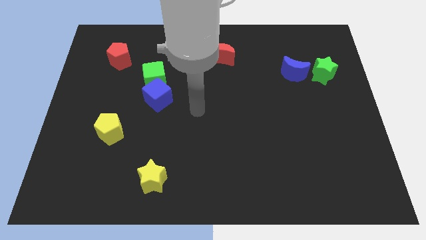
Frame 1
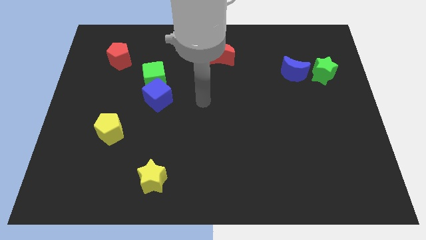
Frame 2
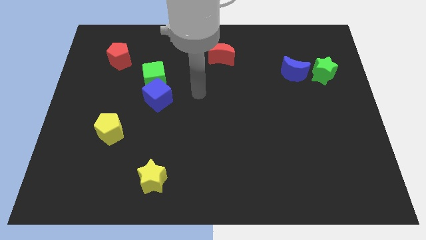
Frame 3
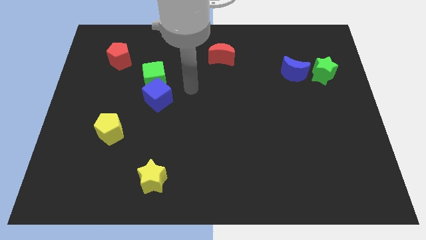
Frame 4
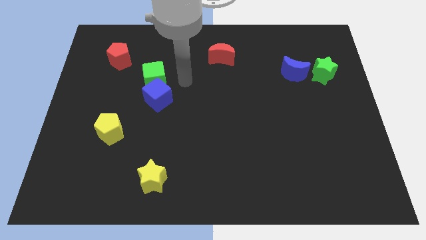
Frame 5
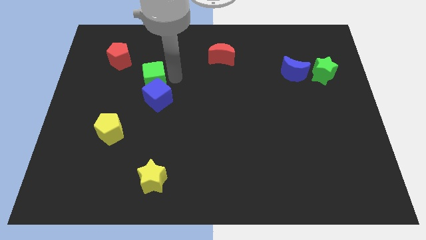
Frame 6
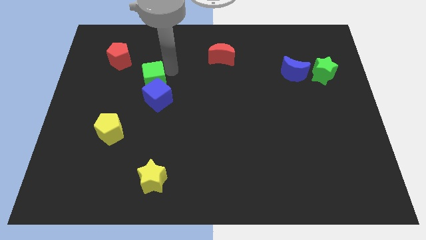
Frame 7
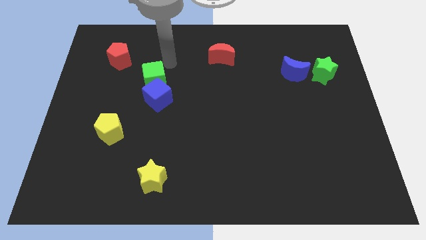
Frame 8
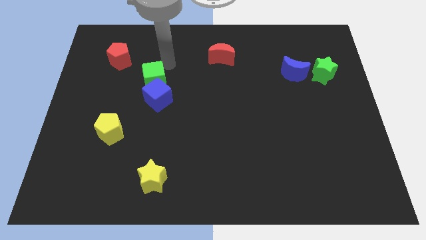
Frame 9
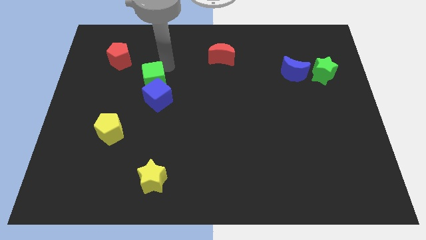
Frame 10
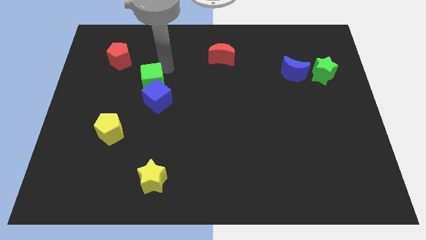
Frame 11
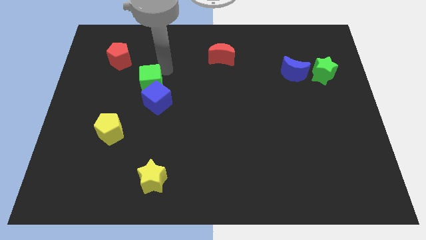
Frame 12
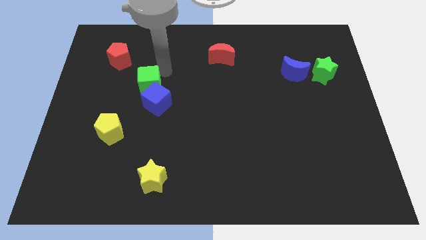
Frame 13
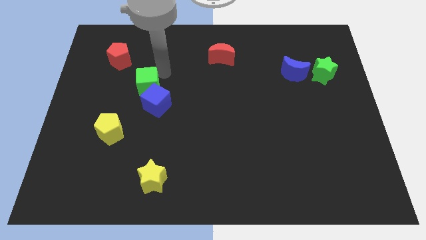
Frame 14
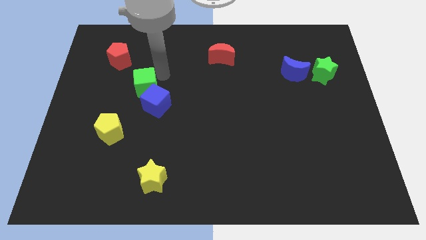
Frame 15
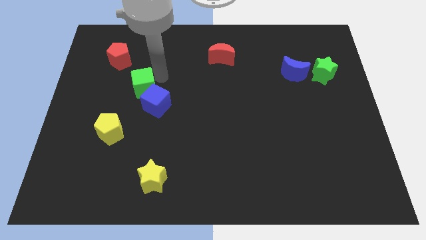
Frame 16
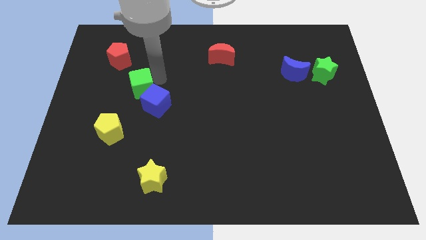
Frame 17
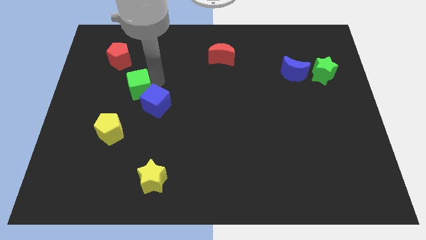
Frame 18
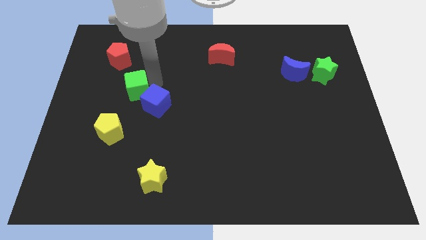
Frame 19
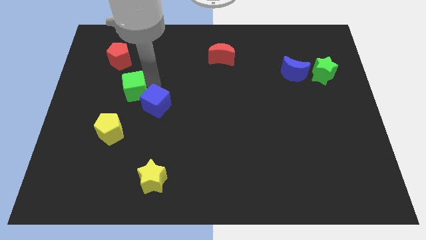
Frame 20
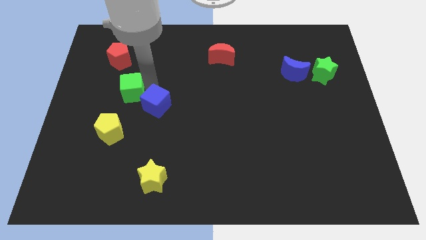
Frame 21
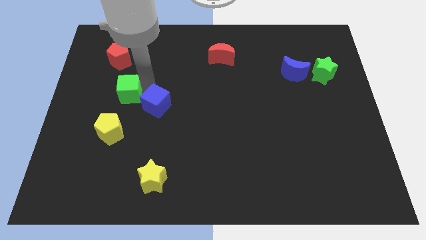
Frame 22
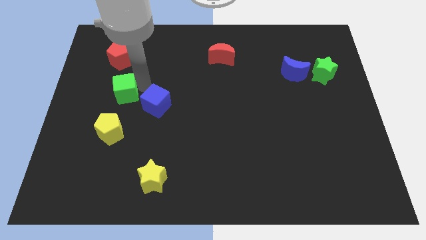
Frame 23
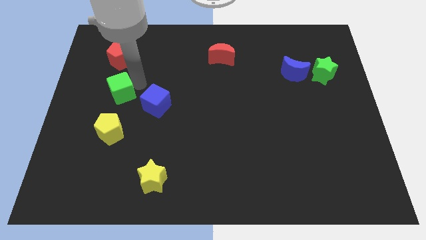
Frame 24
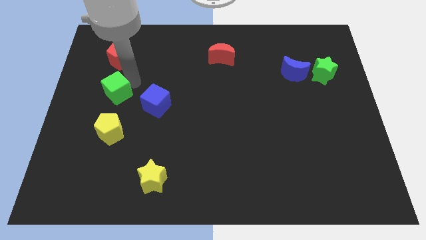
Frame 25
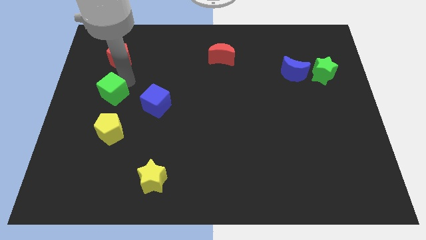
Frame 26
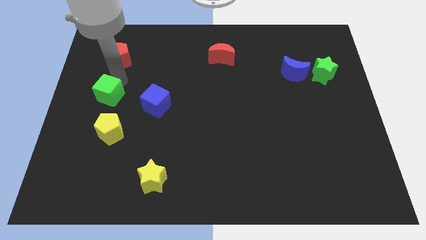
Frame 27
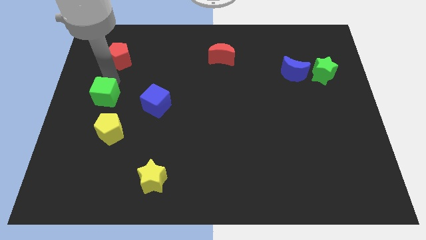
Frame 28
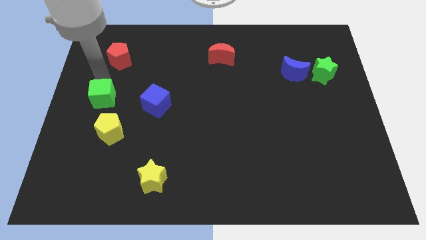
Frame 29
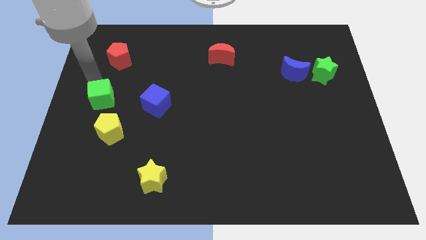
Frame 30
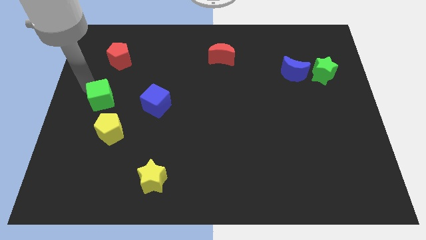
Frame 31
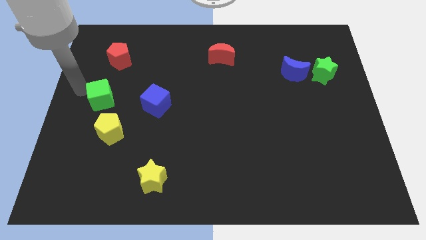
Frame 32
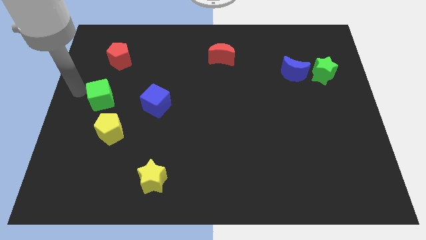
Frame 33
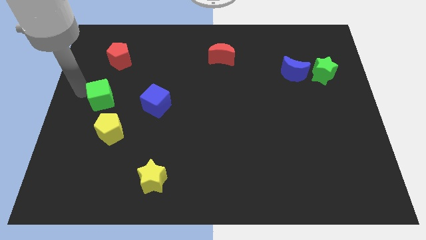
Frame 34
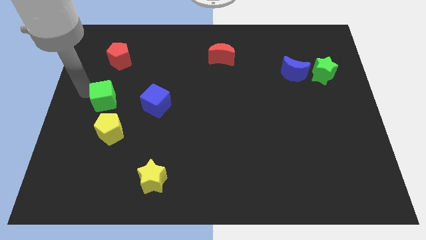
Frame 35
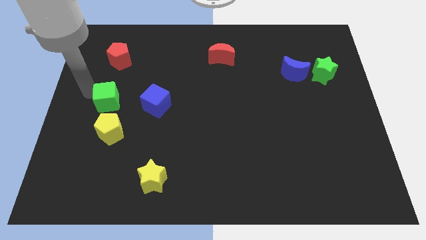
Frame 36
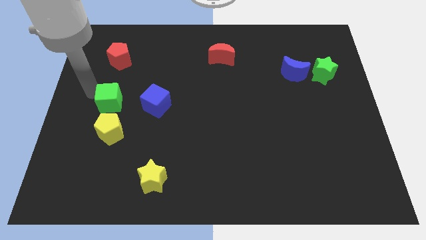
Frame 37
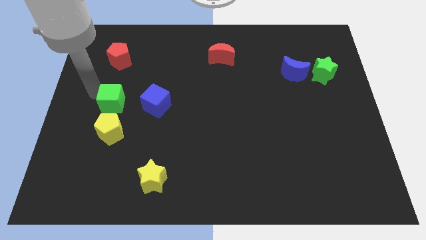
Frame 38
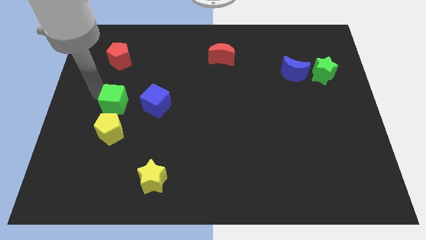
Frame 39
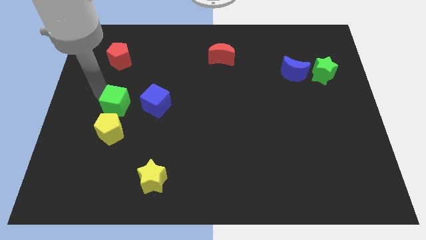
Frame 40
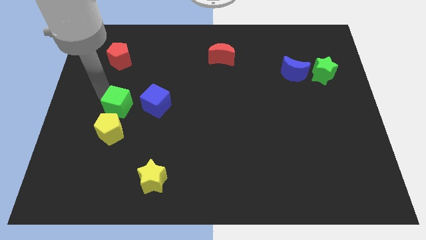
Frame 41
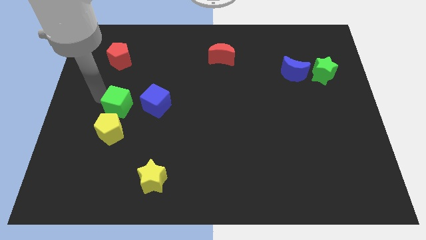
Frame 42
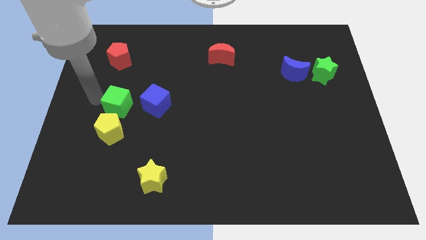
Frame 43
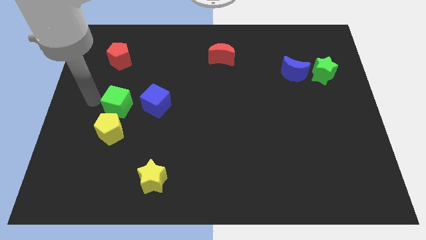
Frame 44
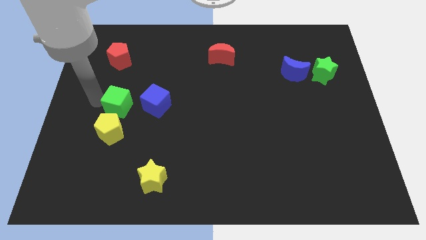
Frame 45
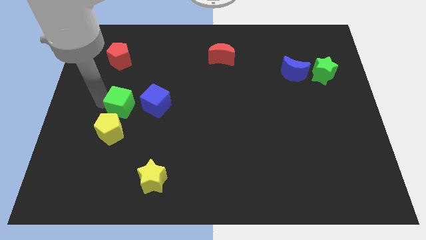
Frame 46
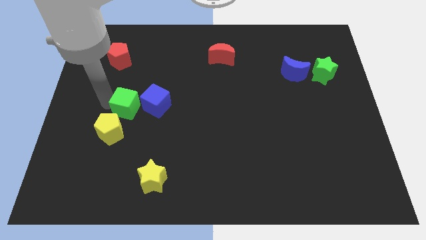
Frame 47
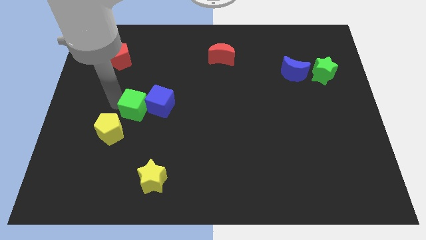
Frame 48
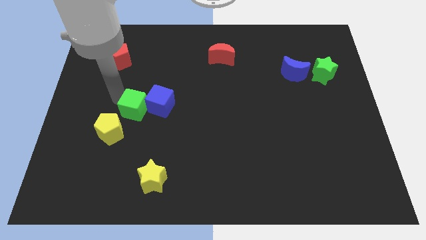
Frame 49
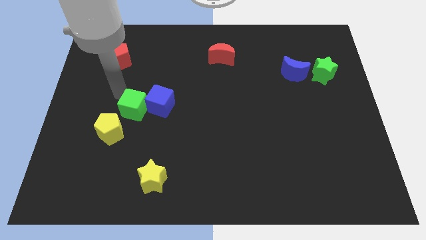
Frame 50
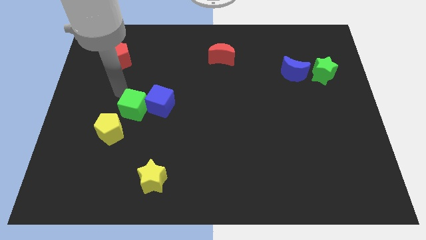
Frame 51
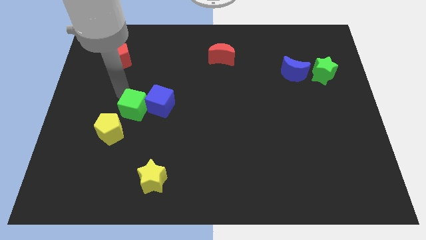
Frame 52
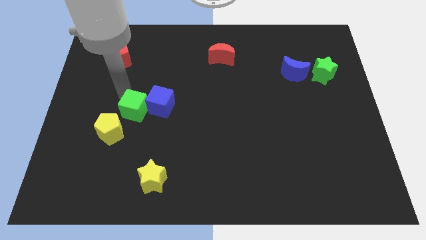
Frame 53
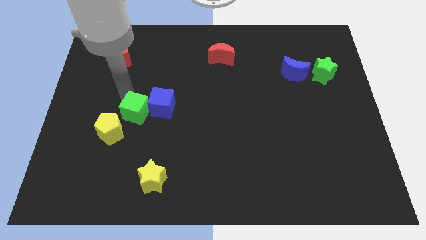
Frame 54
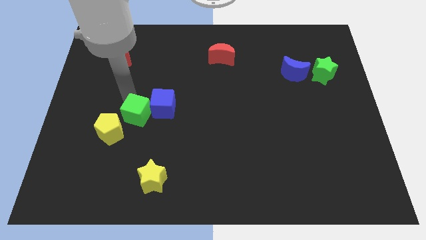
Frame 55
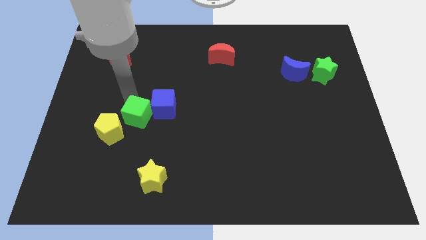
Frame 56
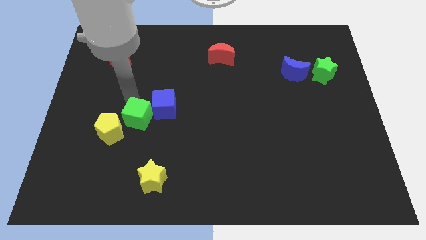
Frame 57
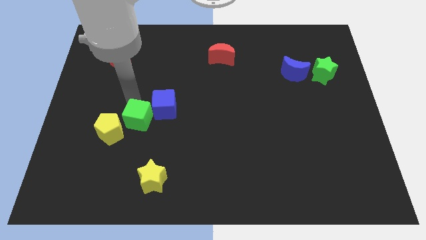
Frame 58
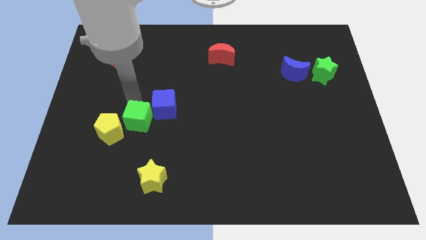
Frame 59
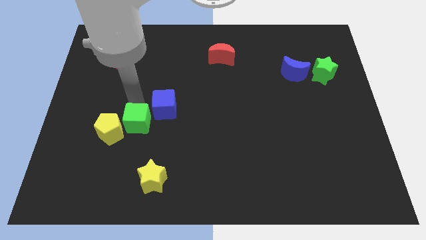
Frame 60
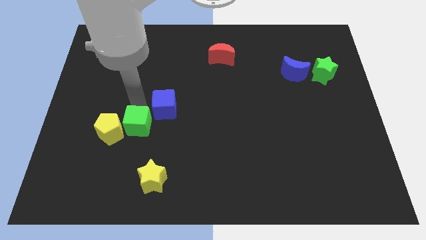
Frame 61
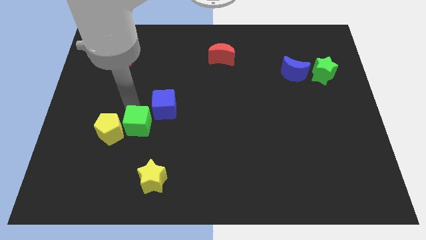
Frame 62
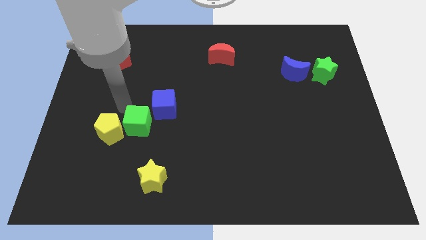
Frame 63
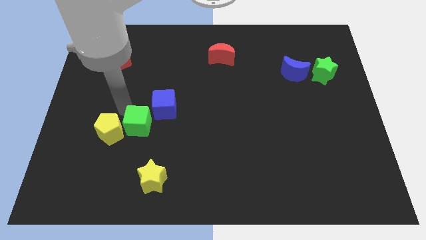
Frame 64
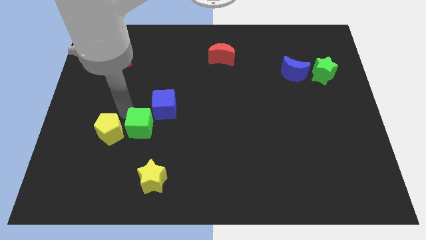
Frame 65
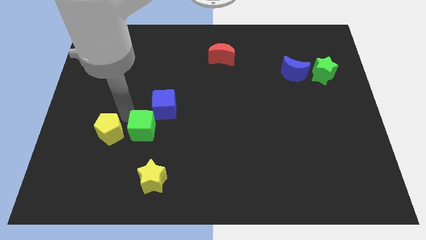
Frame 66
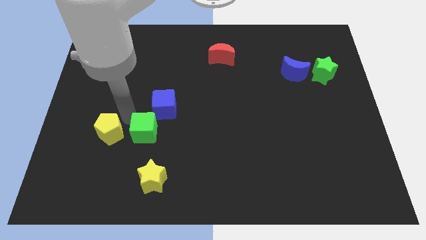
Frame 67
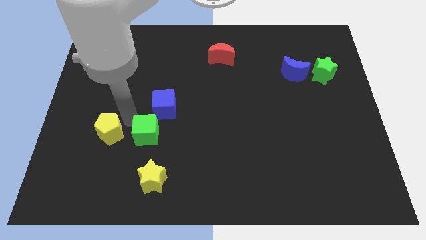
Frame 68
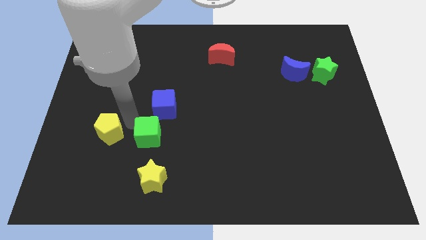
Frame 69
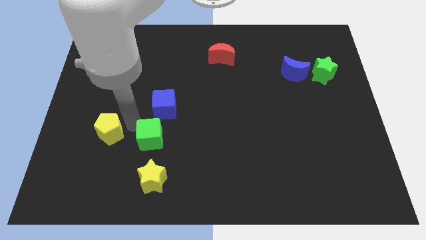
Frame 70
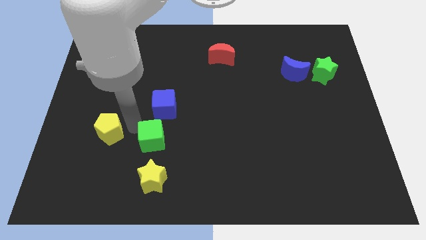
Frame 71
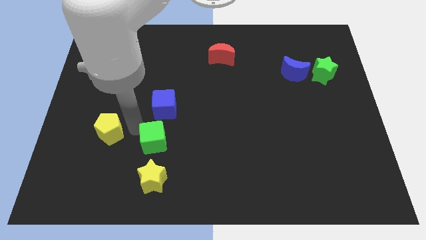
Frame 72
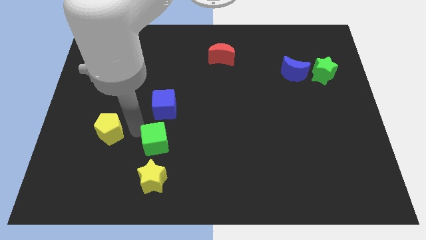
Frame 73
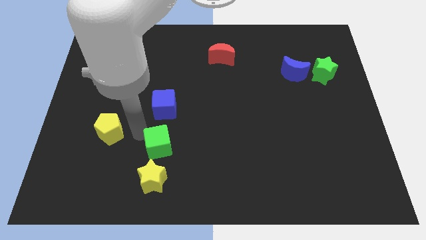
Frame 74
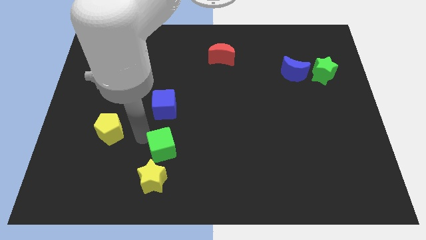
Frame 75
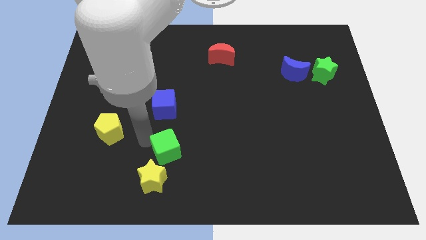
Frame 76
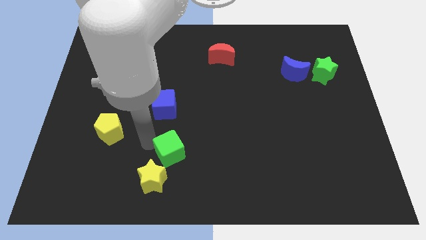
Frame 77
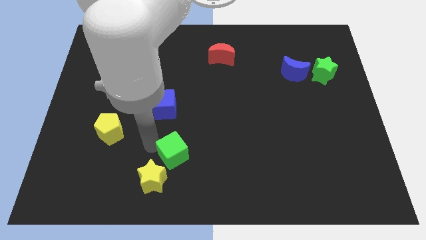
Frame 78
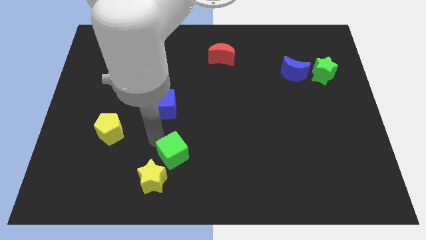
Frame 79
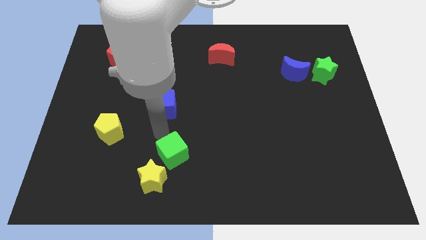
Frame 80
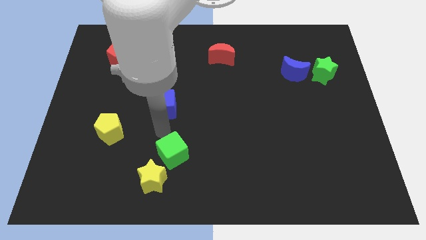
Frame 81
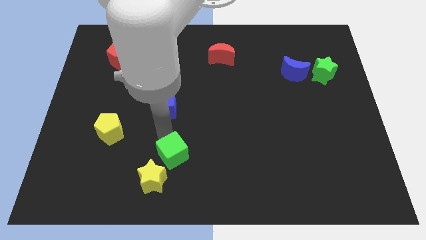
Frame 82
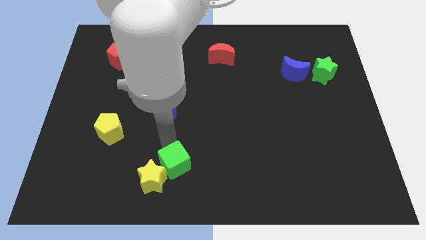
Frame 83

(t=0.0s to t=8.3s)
move the green cube to the bottom
